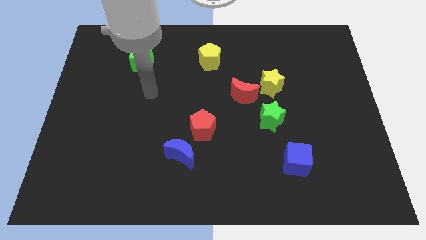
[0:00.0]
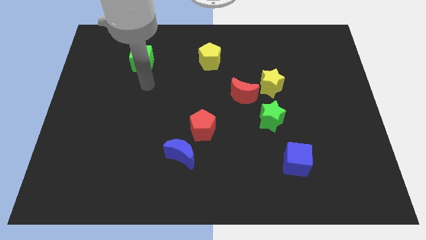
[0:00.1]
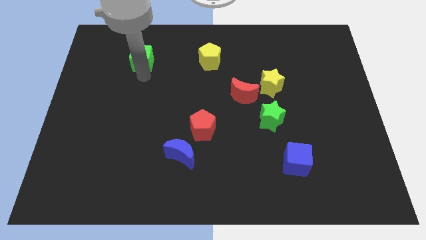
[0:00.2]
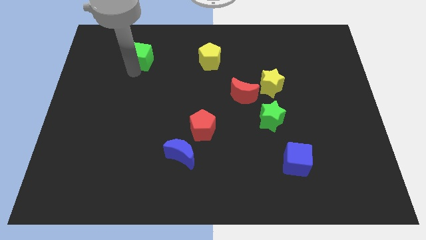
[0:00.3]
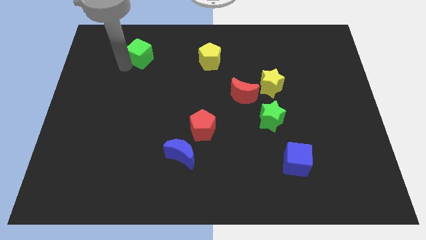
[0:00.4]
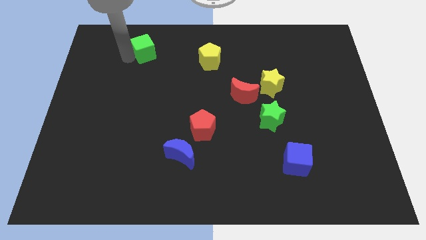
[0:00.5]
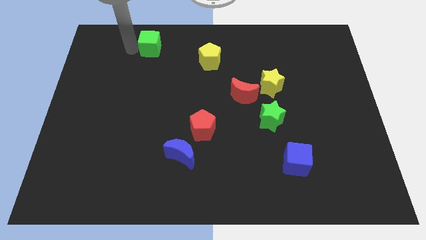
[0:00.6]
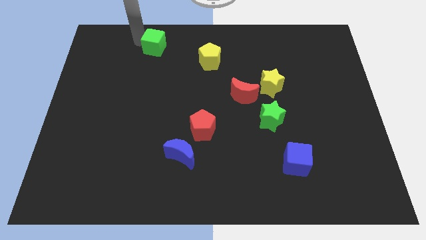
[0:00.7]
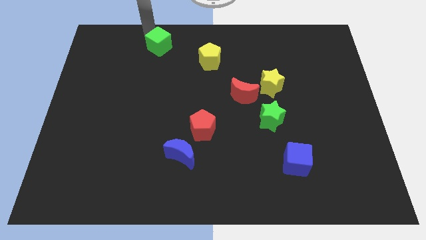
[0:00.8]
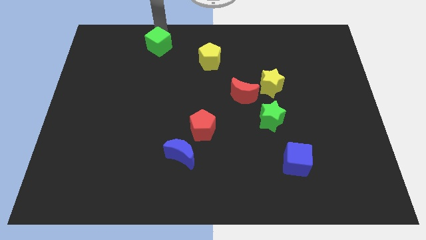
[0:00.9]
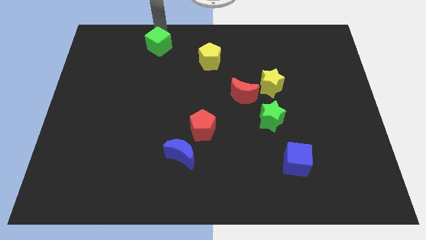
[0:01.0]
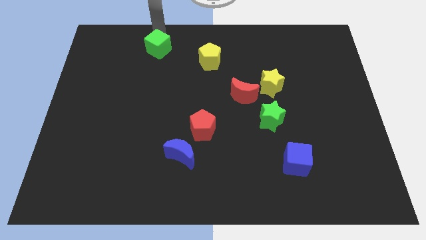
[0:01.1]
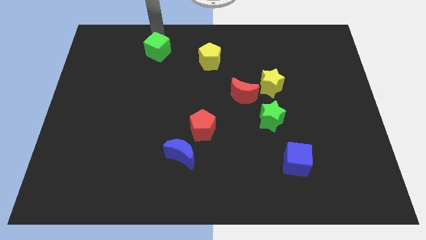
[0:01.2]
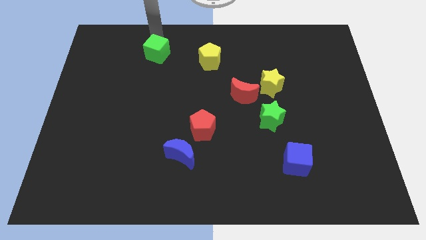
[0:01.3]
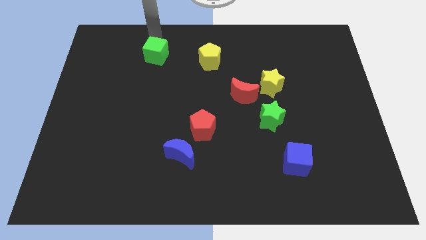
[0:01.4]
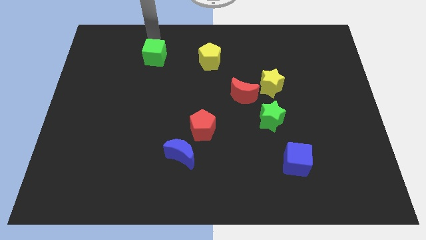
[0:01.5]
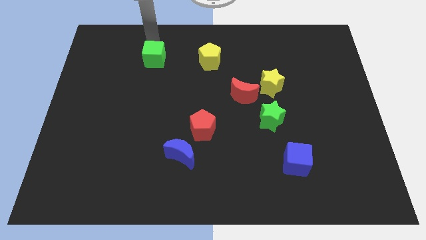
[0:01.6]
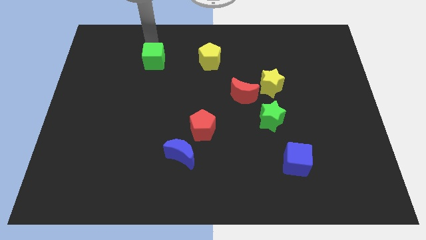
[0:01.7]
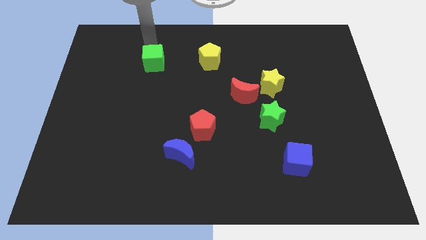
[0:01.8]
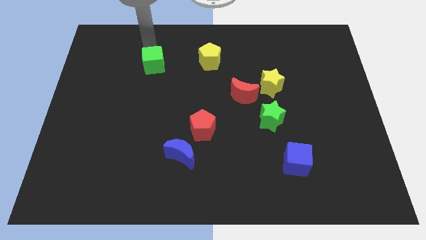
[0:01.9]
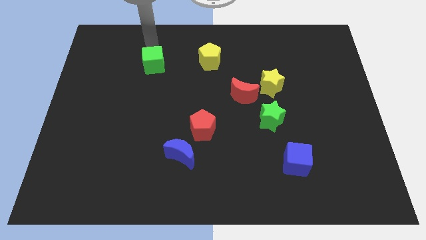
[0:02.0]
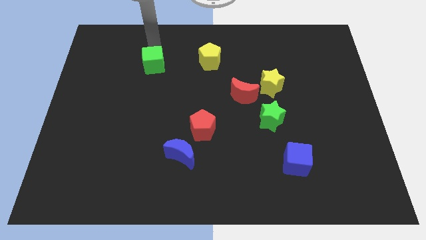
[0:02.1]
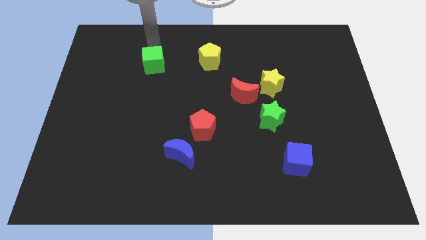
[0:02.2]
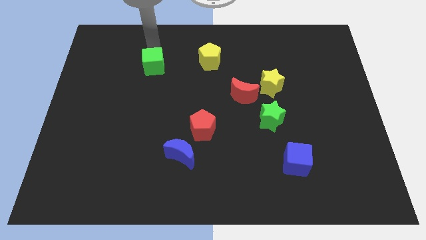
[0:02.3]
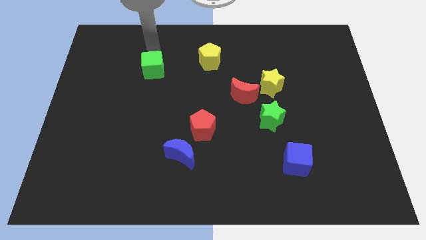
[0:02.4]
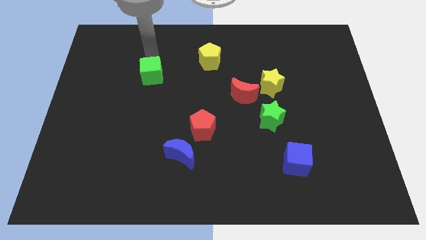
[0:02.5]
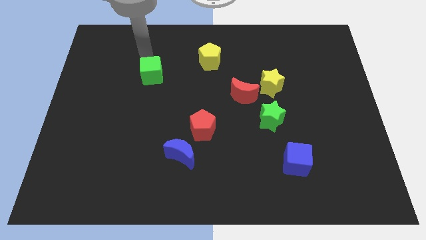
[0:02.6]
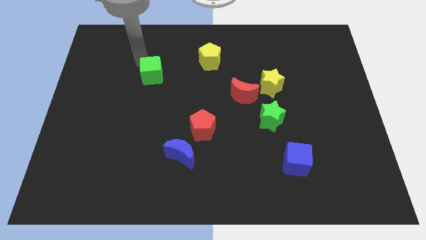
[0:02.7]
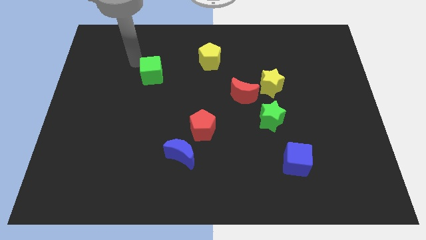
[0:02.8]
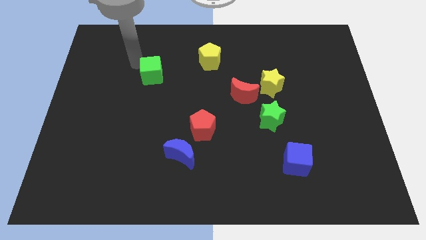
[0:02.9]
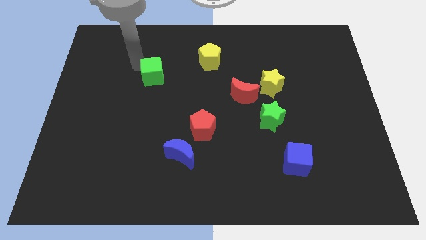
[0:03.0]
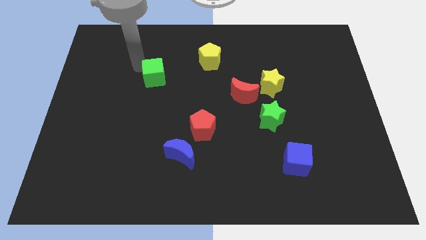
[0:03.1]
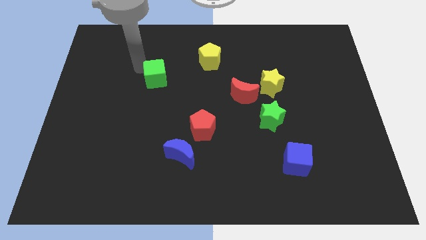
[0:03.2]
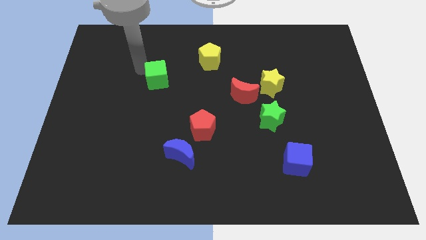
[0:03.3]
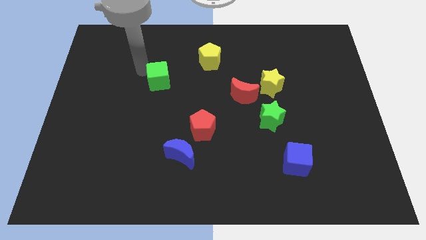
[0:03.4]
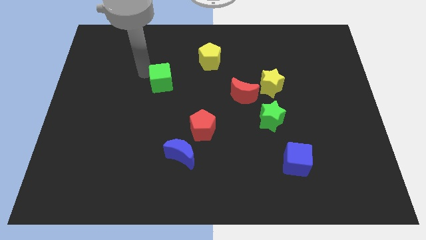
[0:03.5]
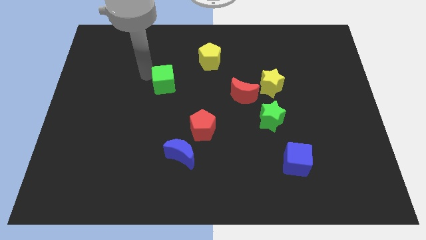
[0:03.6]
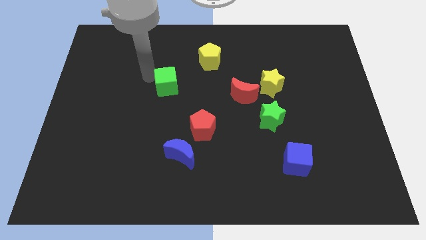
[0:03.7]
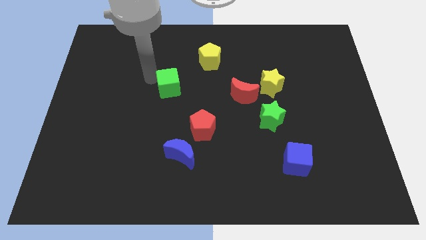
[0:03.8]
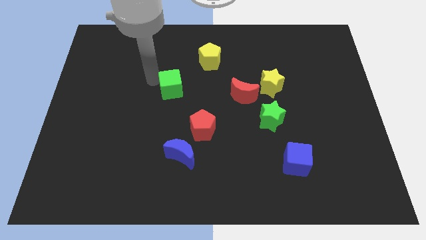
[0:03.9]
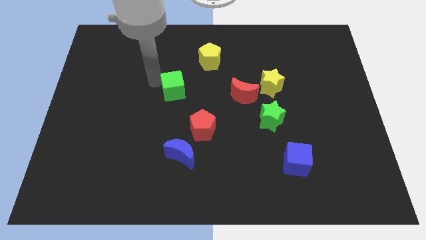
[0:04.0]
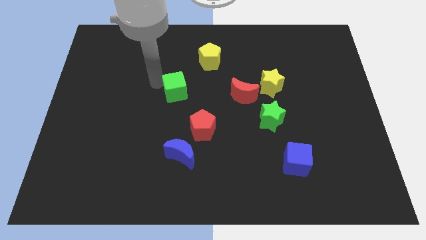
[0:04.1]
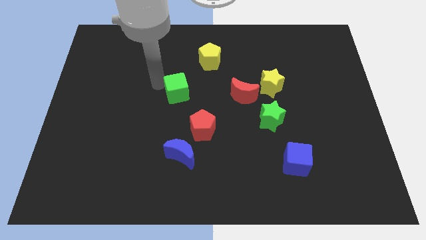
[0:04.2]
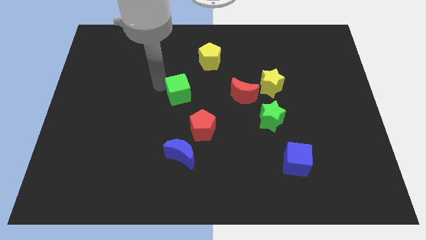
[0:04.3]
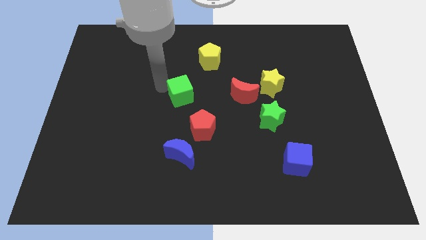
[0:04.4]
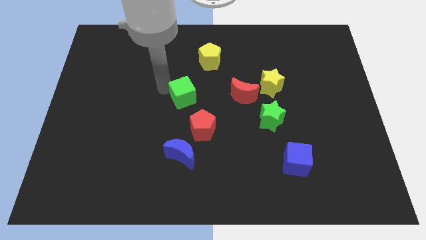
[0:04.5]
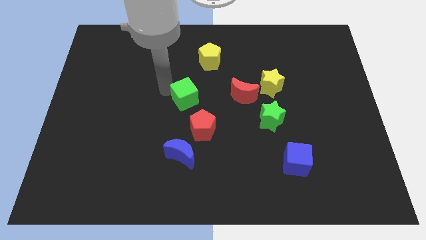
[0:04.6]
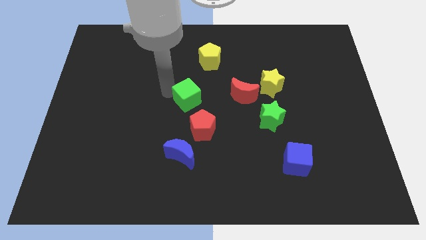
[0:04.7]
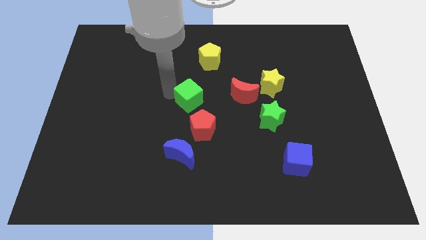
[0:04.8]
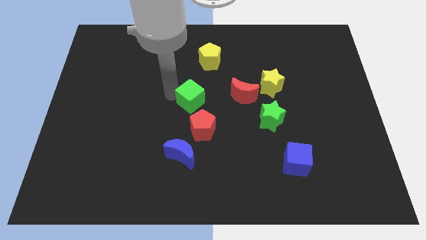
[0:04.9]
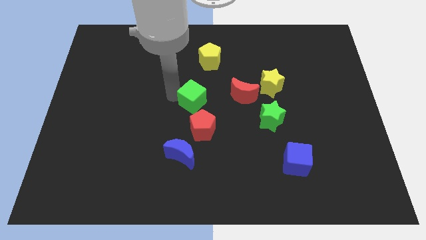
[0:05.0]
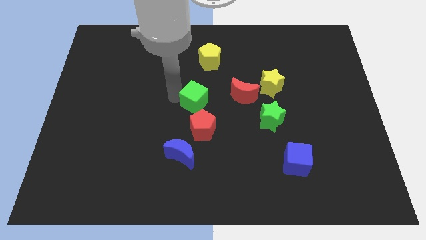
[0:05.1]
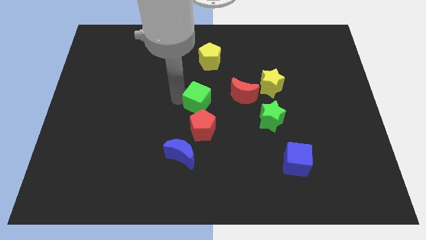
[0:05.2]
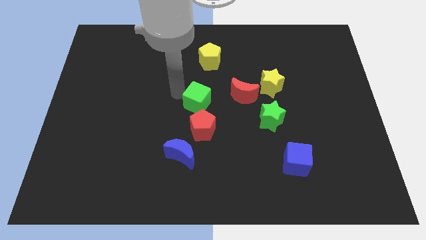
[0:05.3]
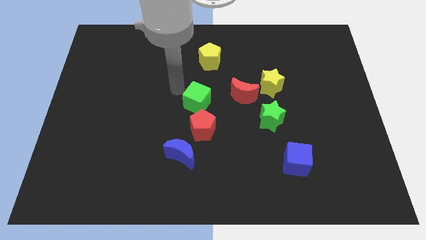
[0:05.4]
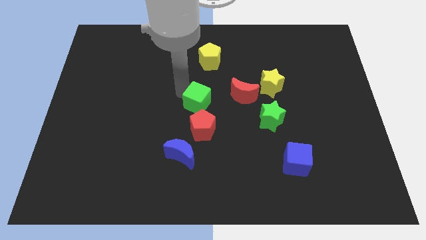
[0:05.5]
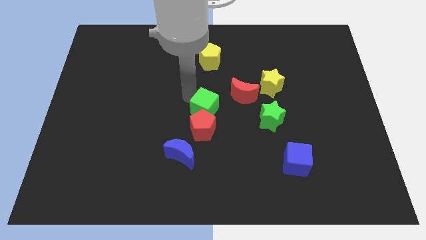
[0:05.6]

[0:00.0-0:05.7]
push the green cube to the left side of the green star

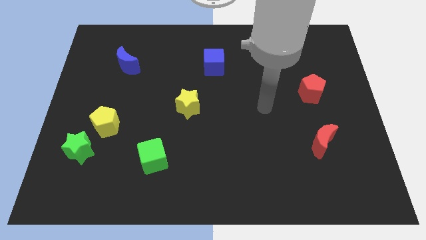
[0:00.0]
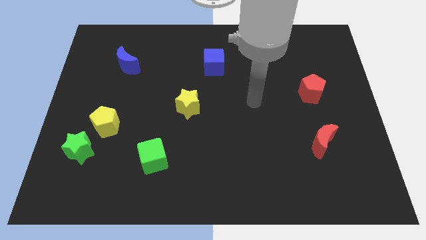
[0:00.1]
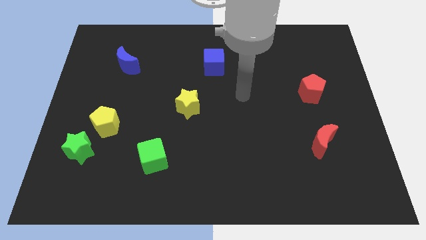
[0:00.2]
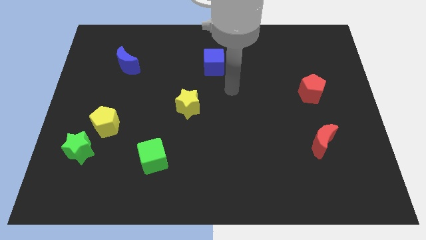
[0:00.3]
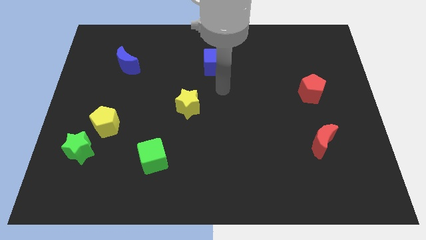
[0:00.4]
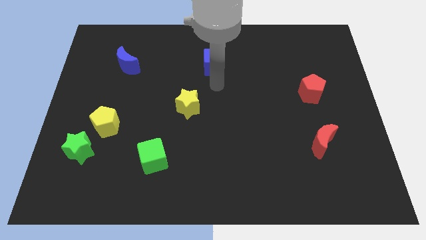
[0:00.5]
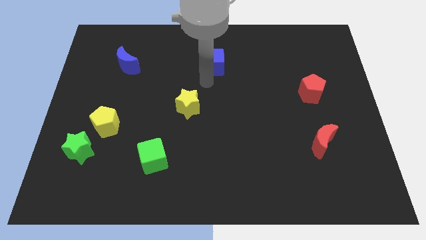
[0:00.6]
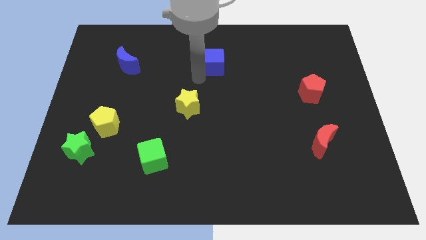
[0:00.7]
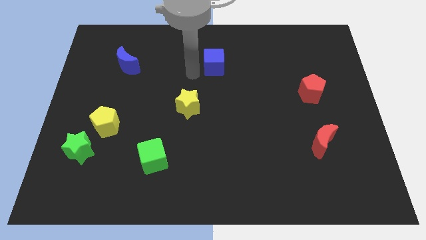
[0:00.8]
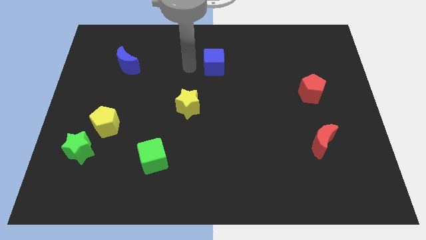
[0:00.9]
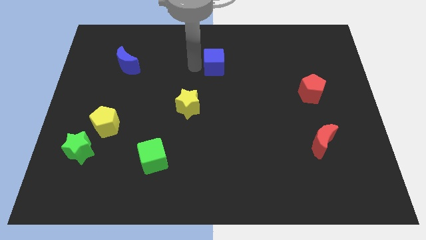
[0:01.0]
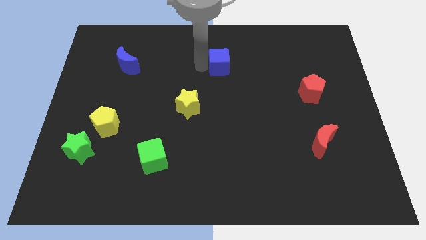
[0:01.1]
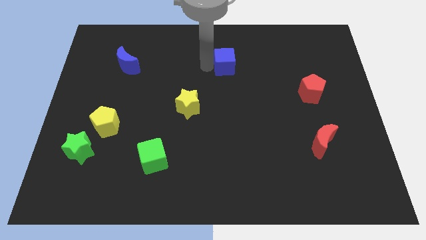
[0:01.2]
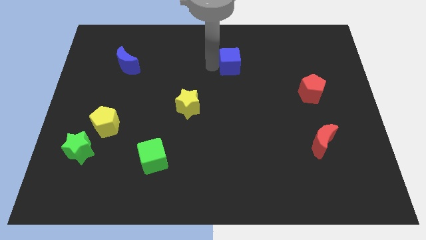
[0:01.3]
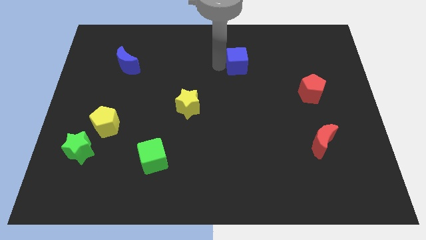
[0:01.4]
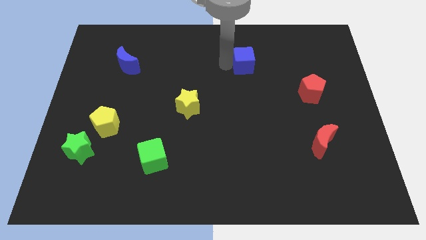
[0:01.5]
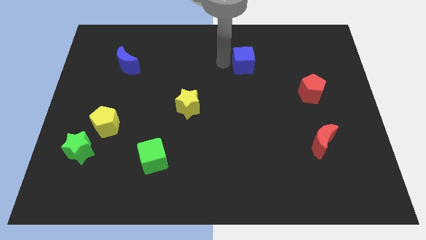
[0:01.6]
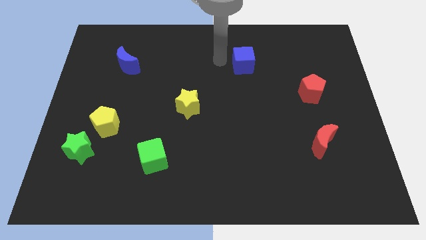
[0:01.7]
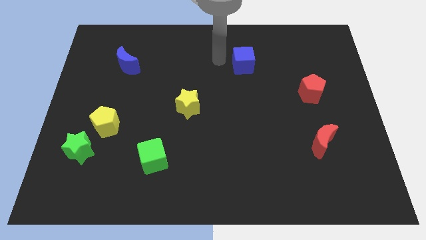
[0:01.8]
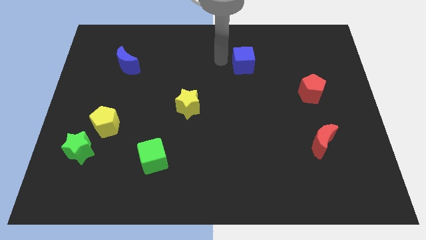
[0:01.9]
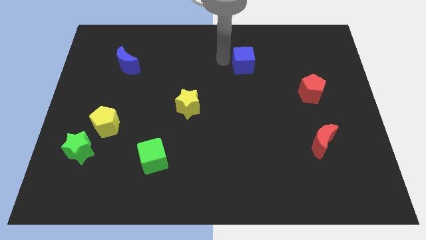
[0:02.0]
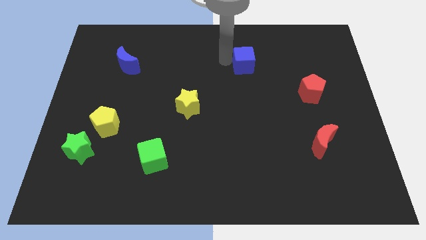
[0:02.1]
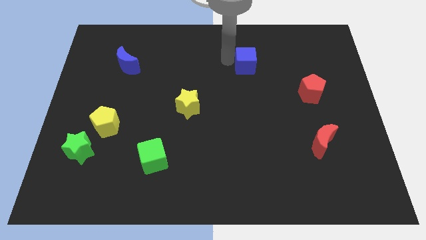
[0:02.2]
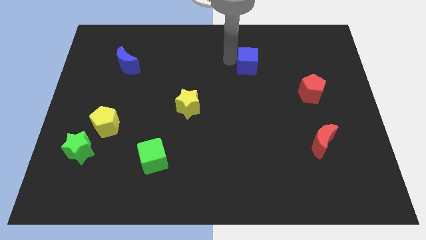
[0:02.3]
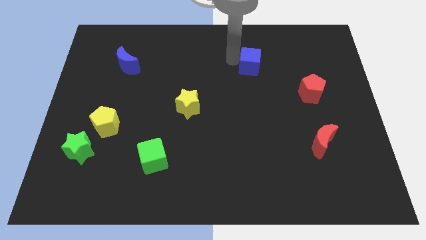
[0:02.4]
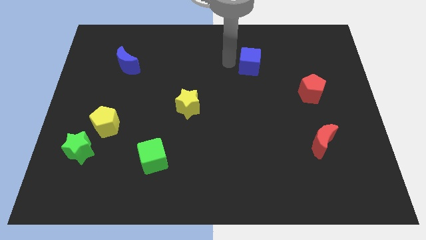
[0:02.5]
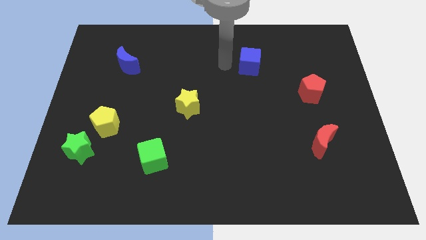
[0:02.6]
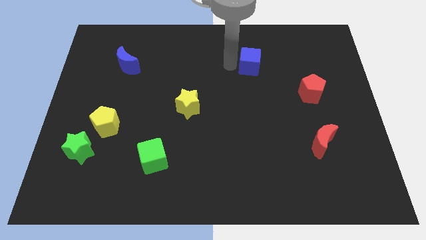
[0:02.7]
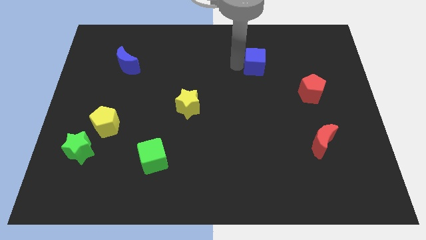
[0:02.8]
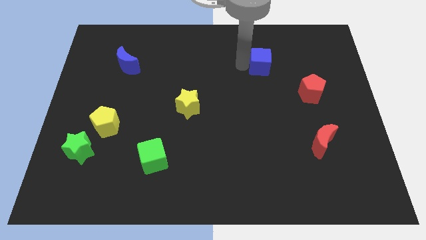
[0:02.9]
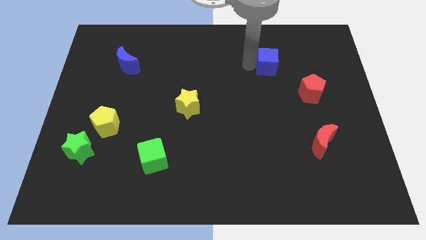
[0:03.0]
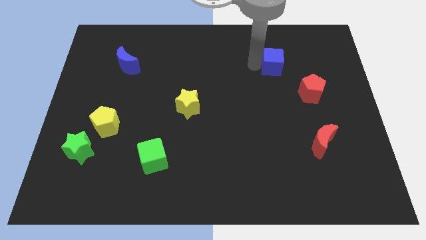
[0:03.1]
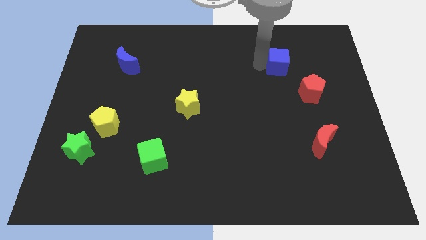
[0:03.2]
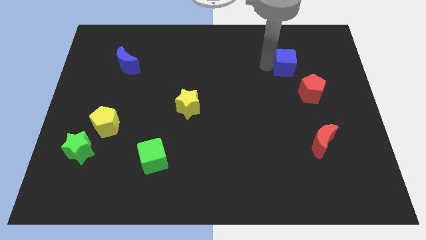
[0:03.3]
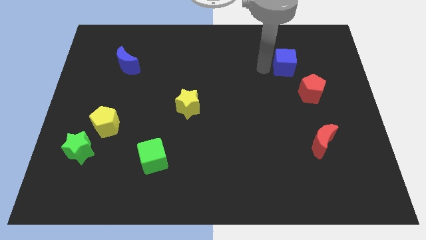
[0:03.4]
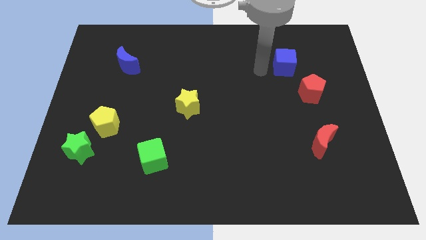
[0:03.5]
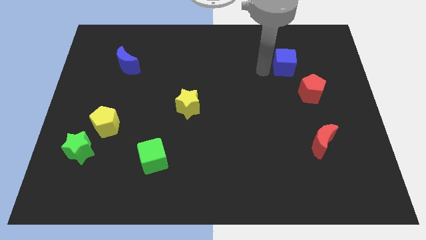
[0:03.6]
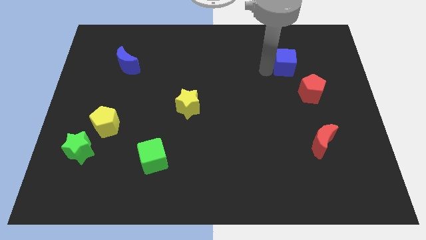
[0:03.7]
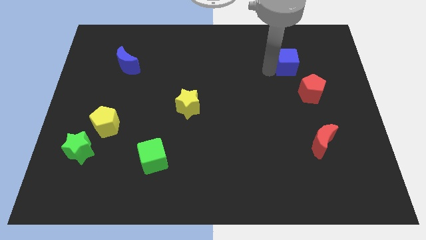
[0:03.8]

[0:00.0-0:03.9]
put the blue cube to the top side of the red pentagon
